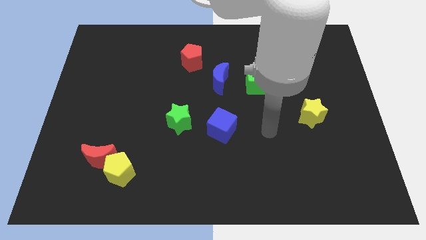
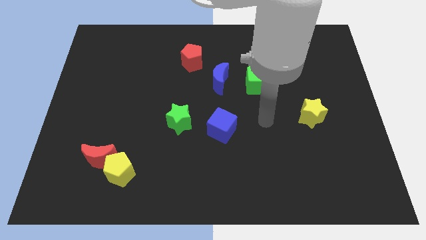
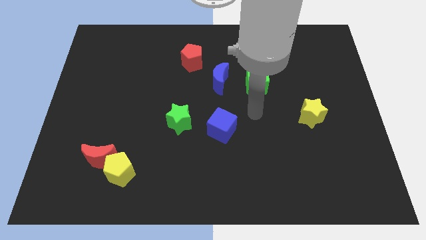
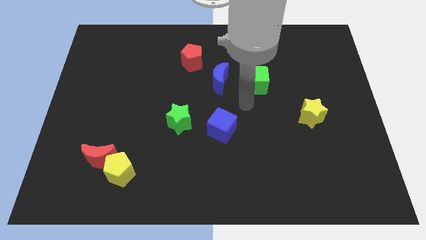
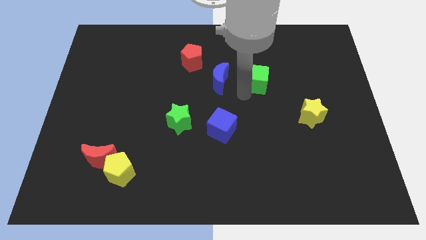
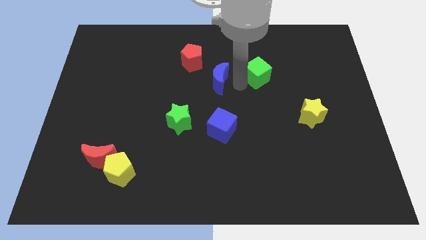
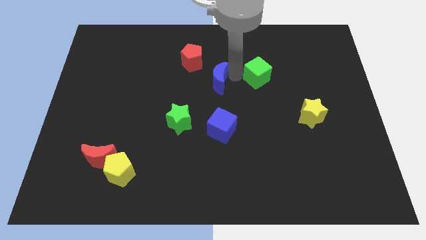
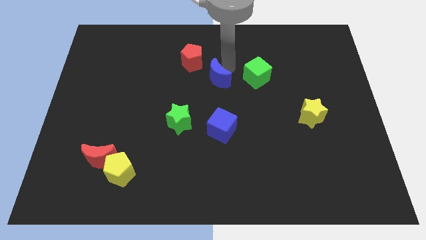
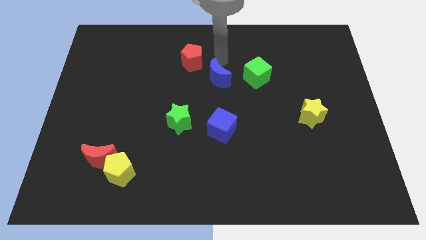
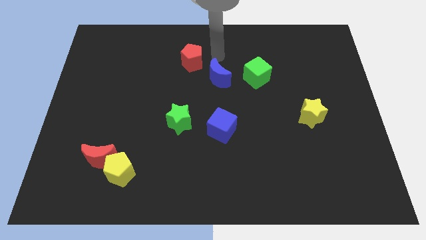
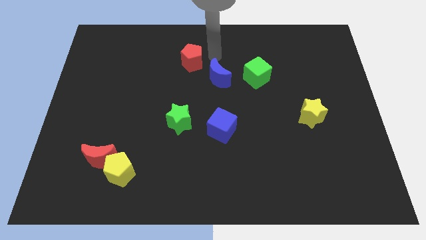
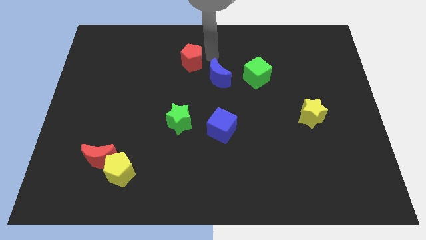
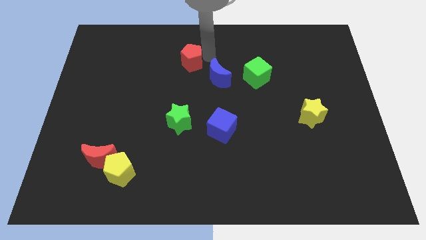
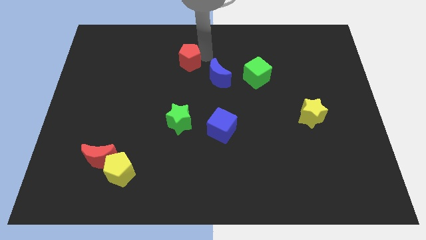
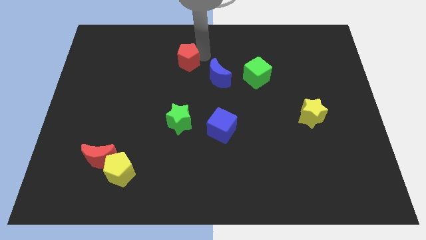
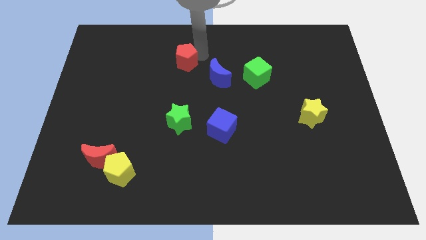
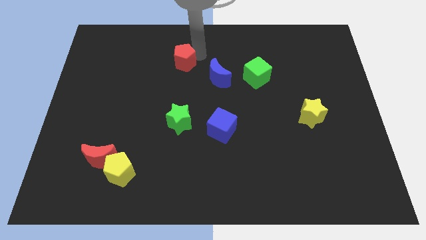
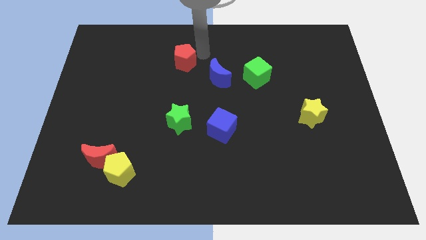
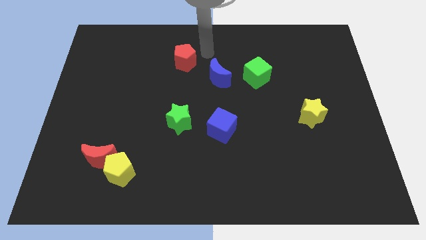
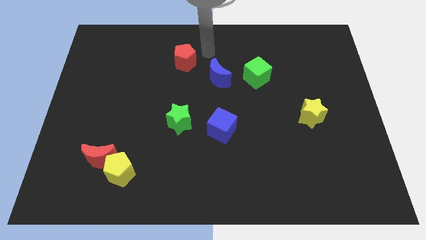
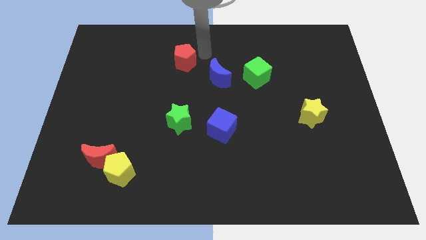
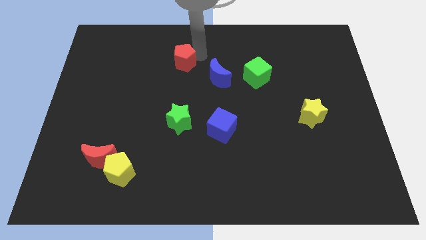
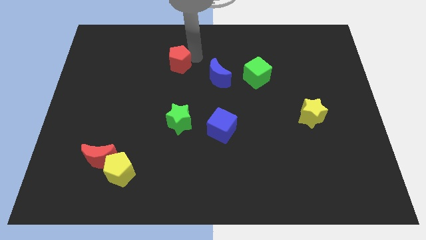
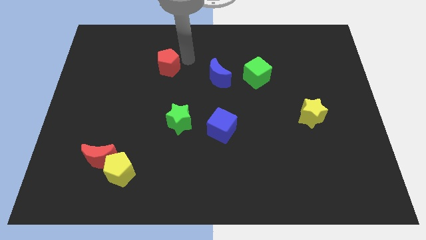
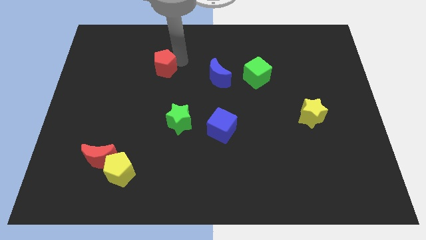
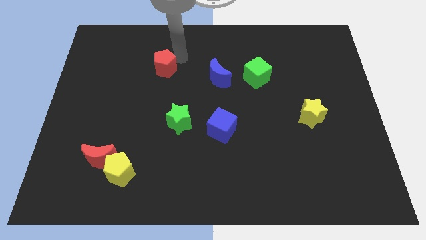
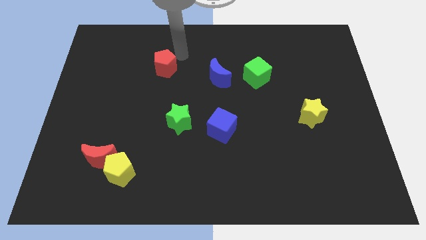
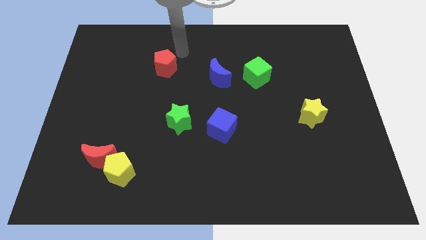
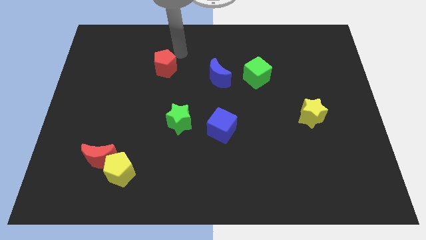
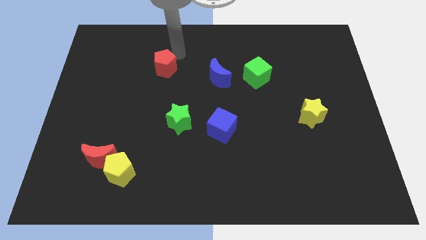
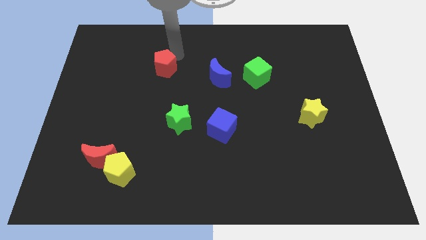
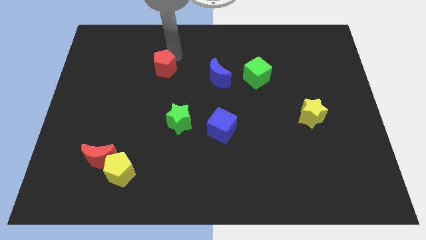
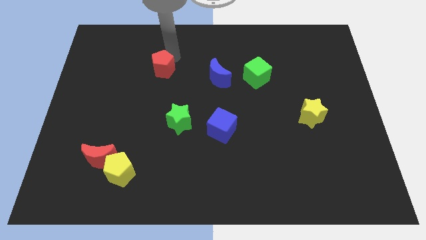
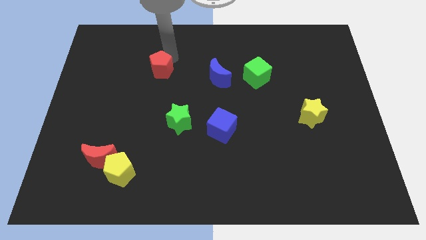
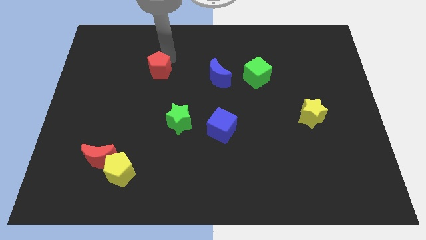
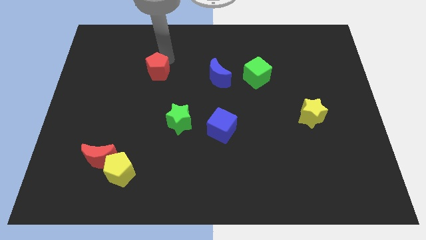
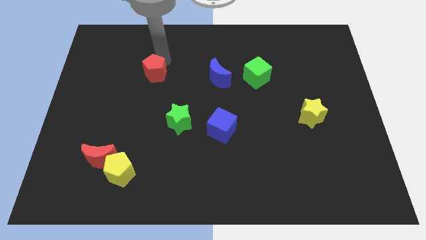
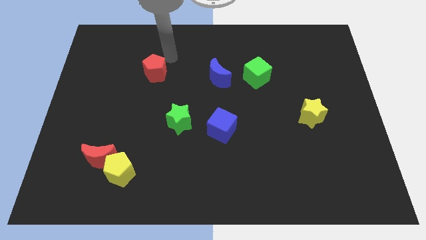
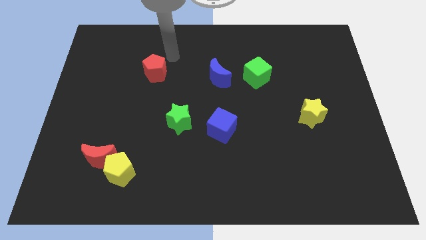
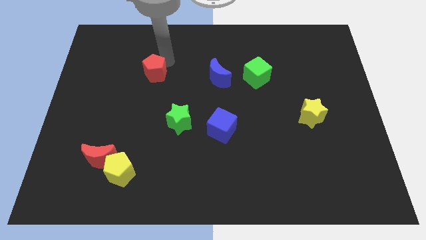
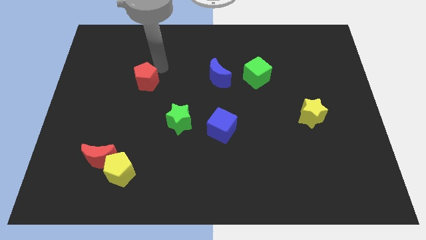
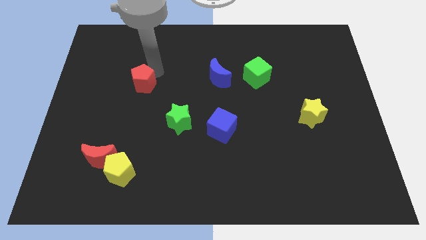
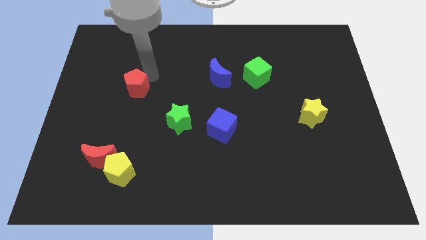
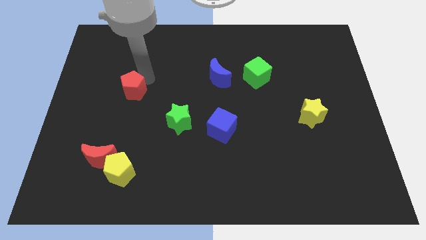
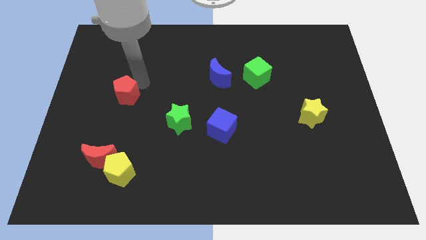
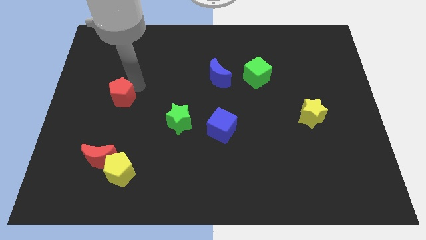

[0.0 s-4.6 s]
slide the red pentagon downwards and then left

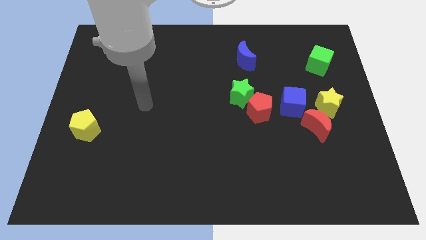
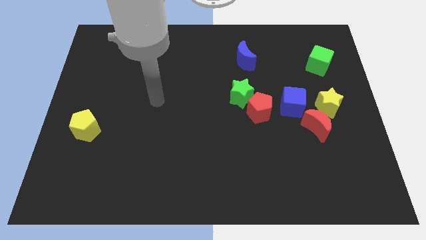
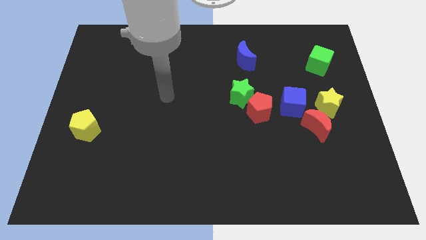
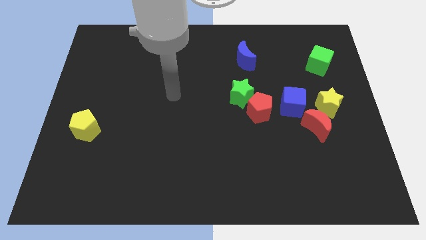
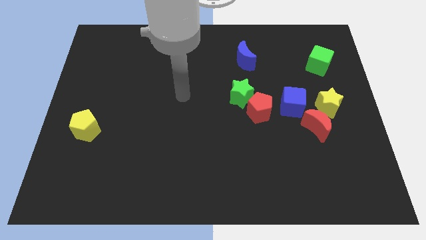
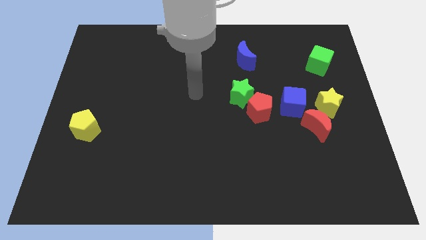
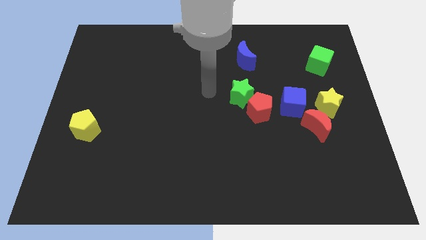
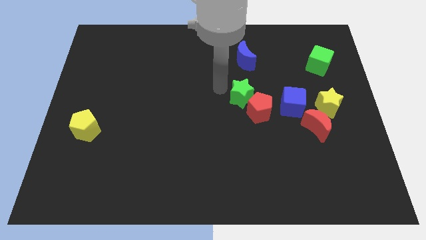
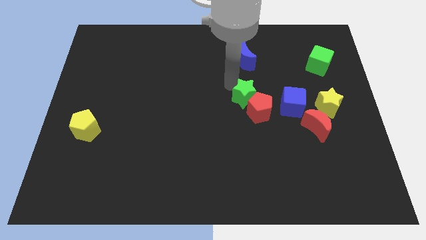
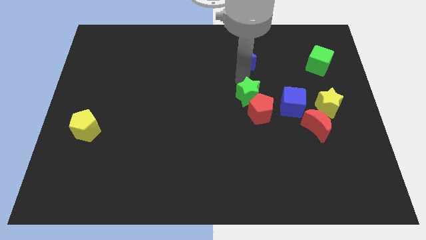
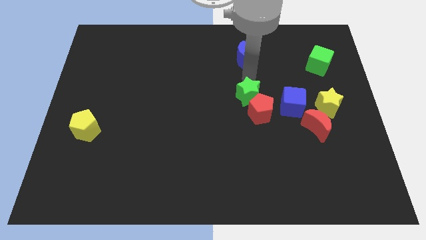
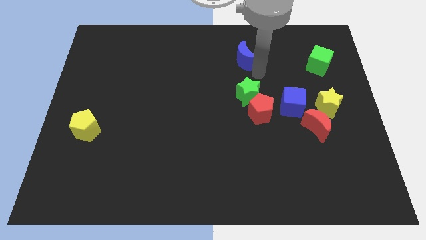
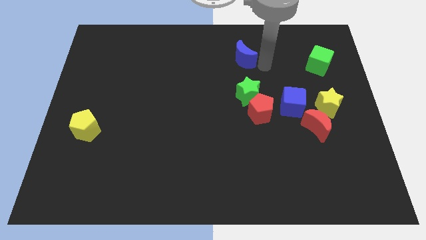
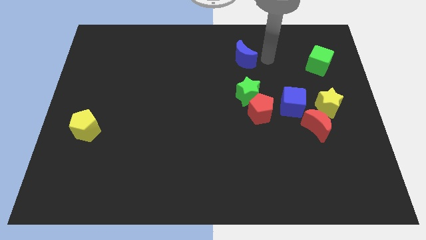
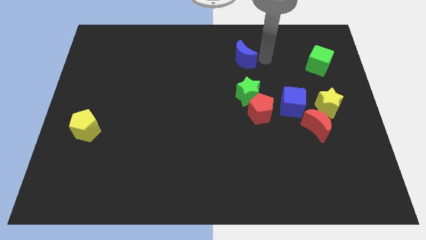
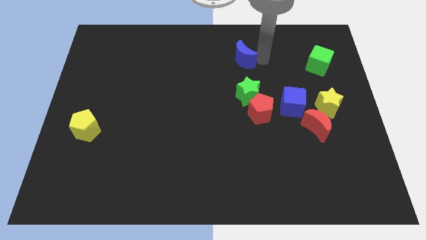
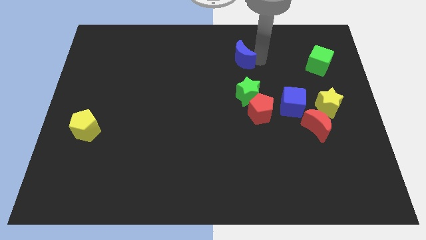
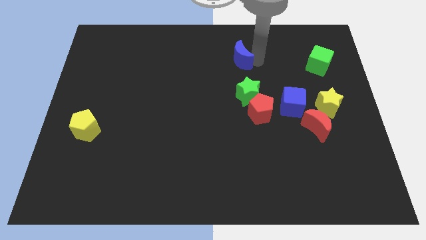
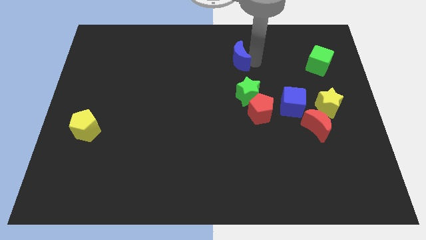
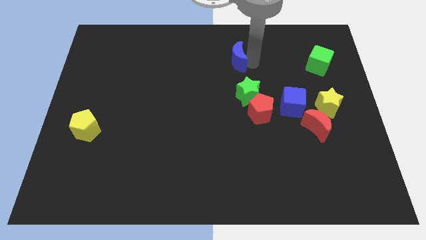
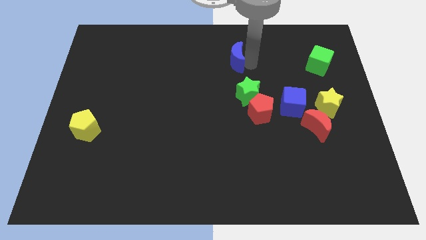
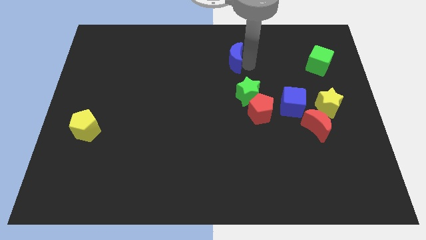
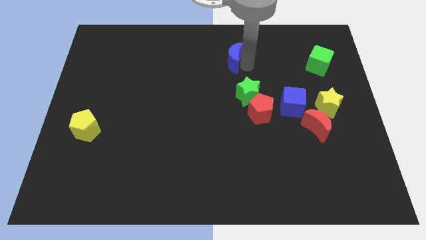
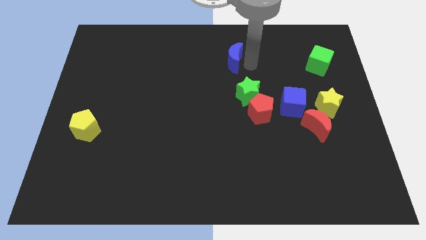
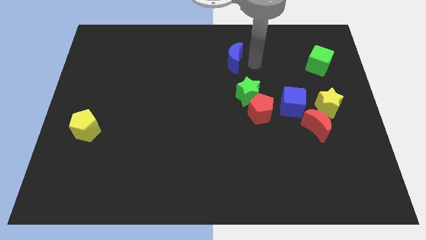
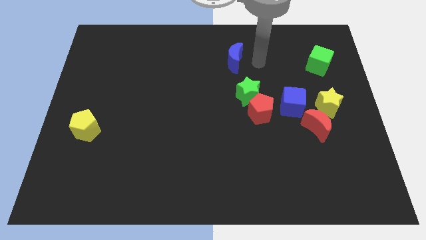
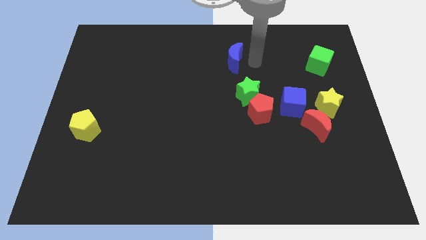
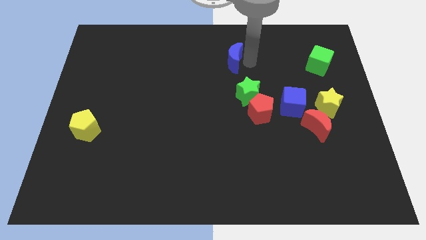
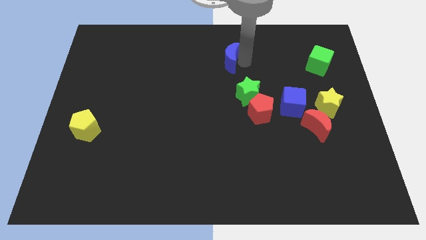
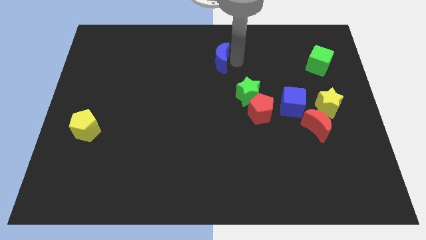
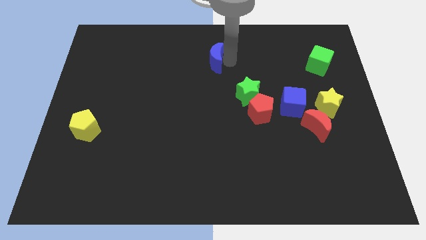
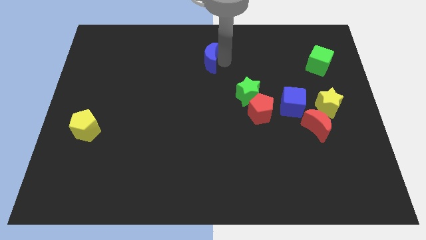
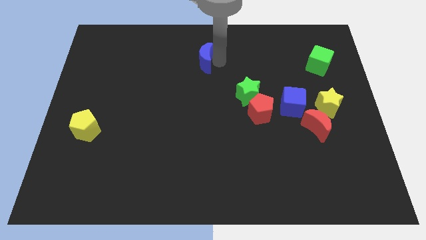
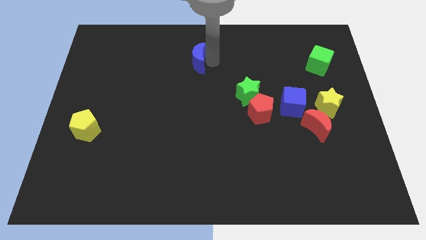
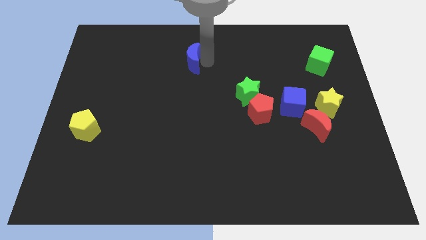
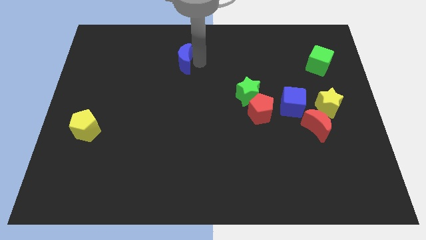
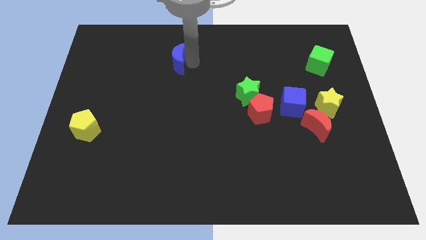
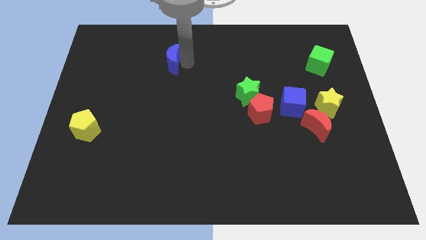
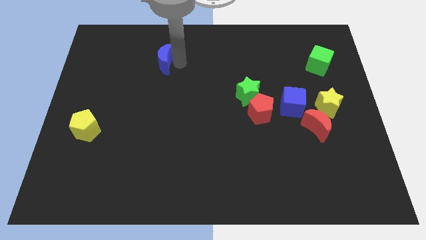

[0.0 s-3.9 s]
push the blue moon left
